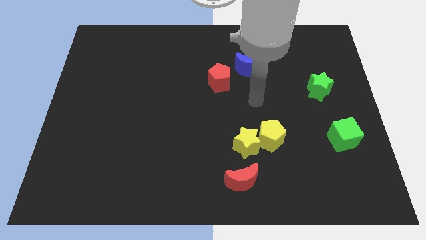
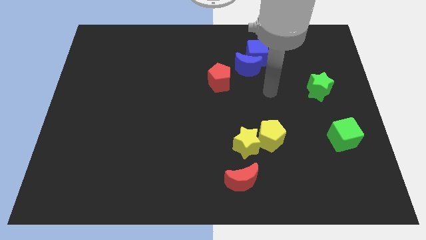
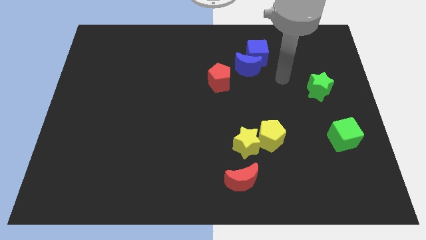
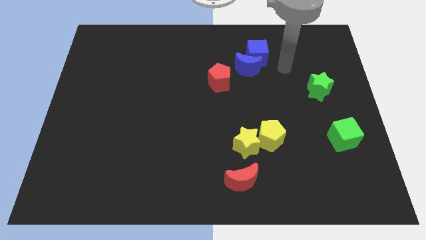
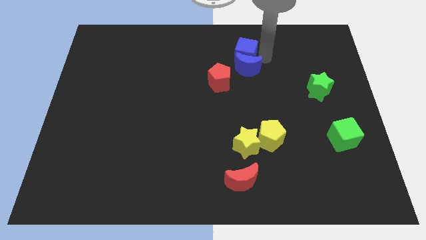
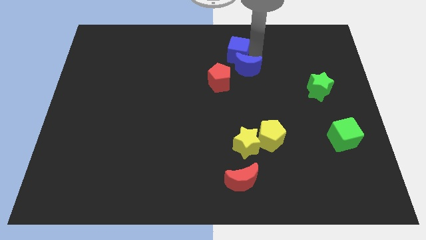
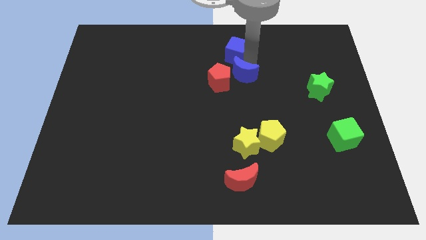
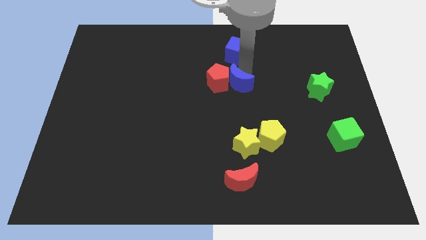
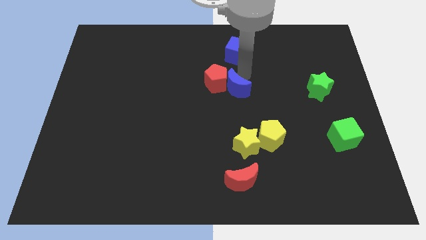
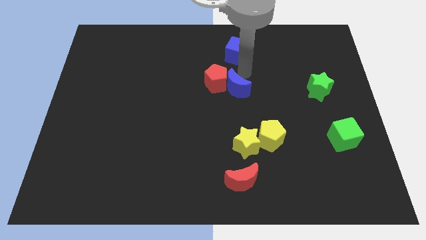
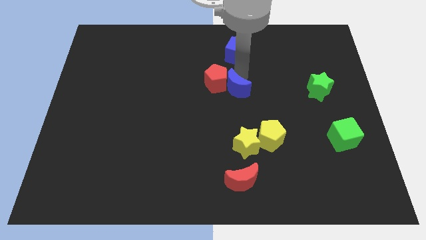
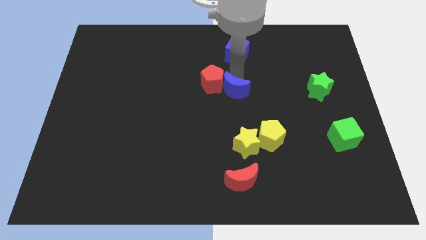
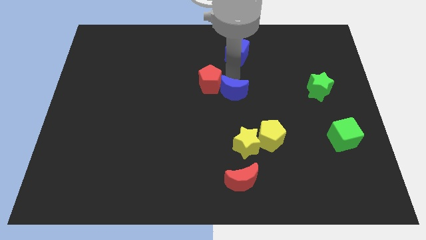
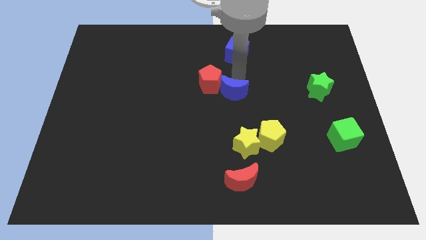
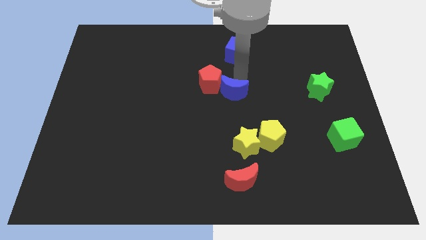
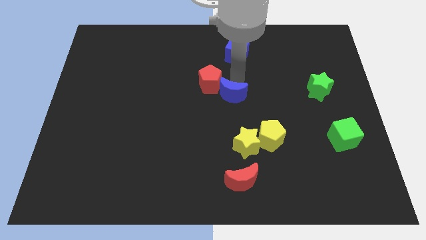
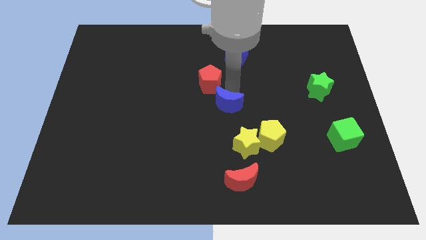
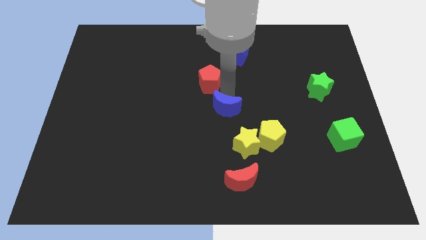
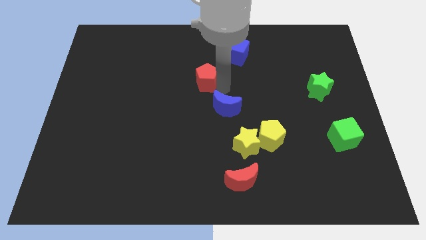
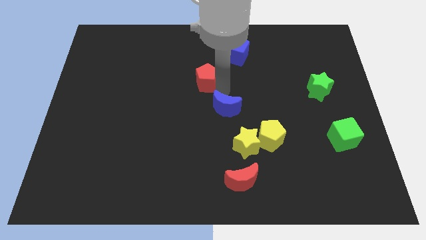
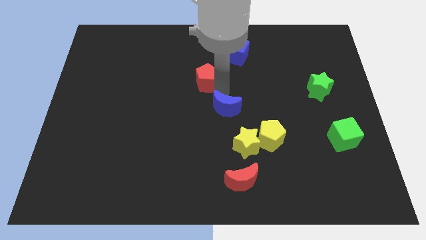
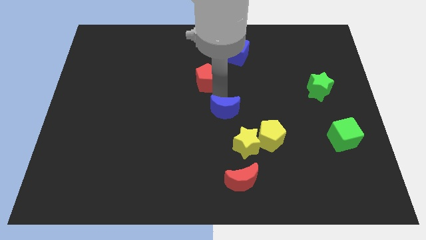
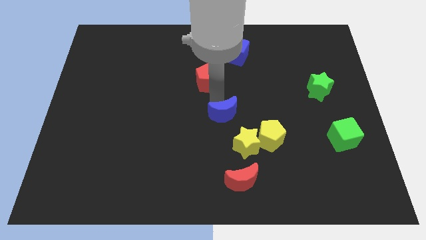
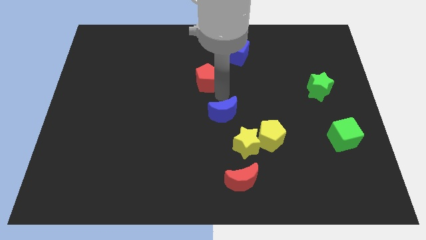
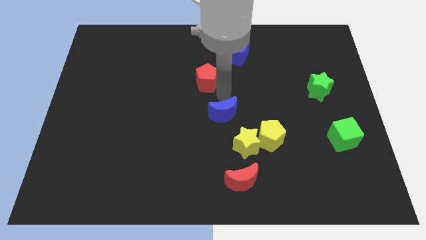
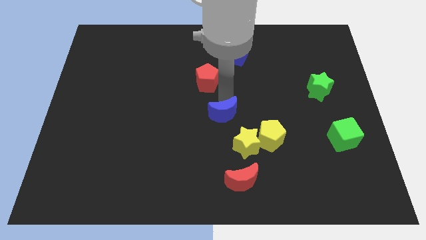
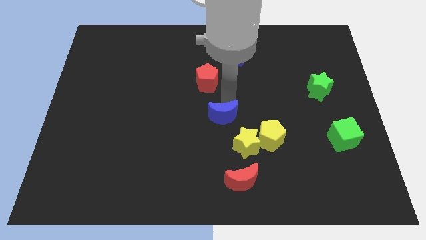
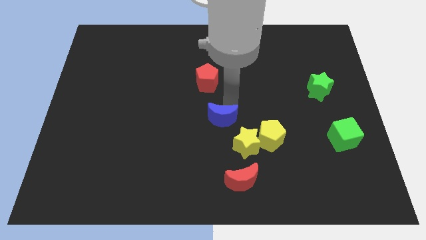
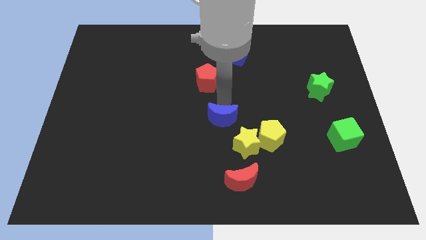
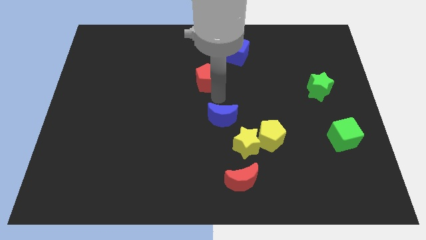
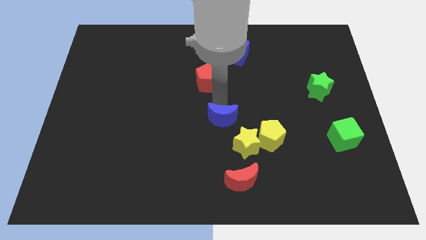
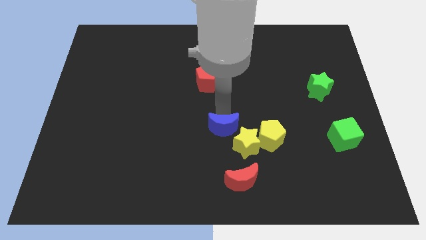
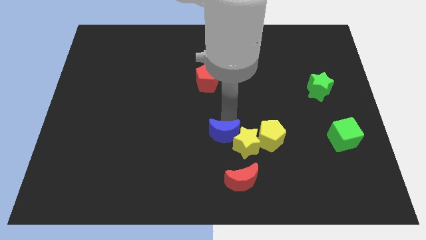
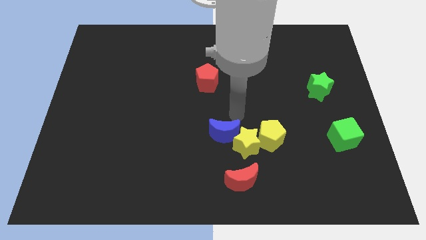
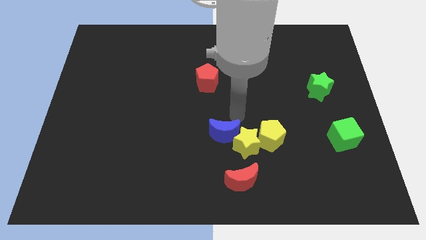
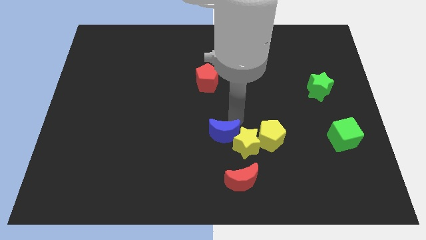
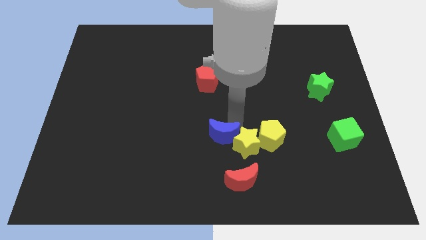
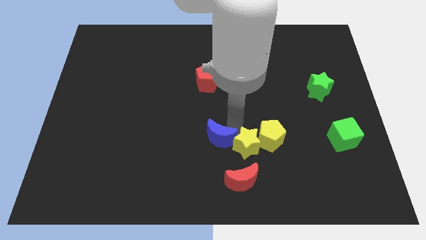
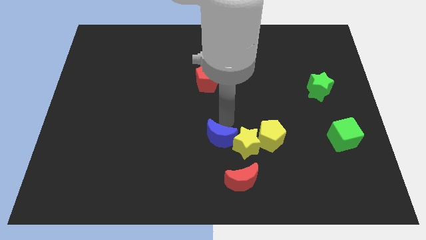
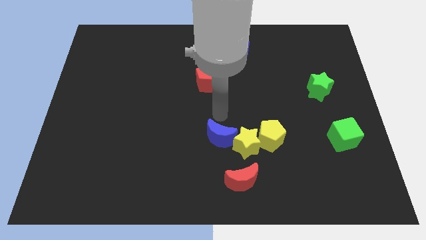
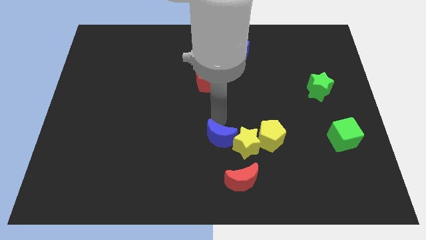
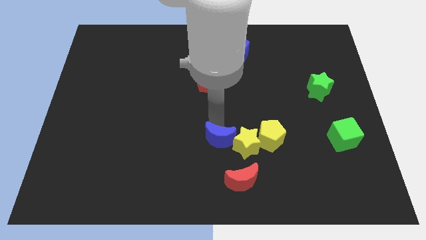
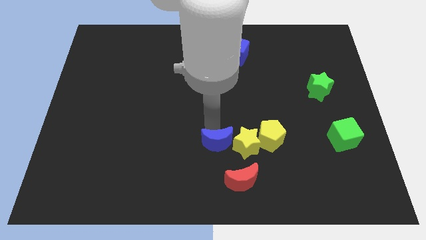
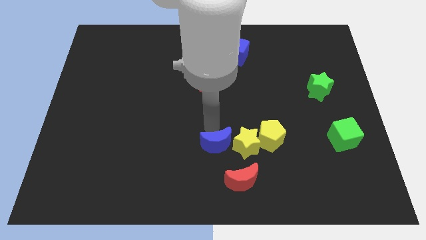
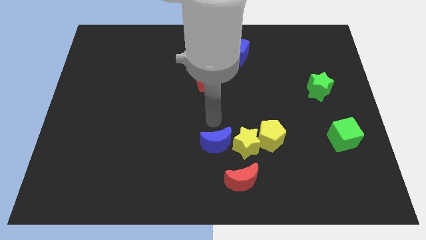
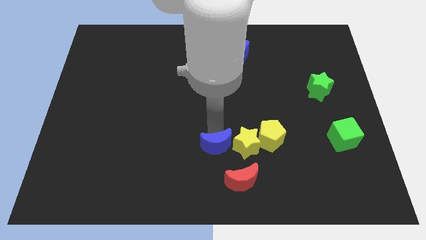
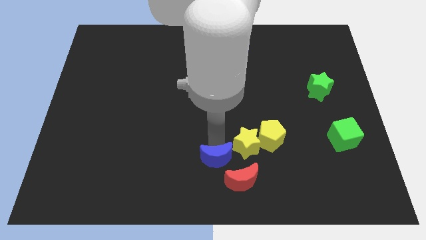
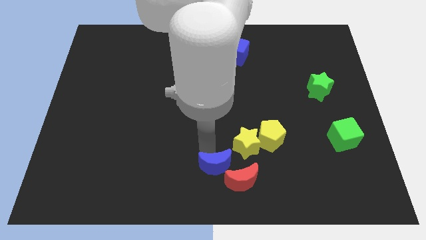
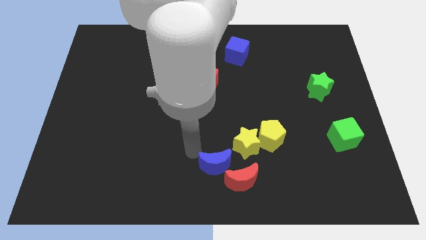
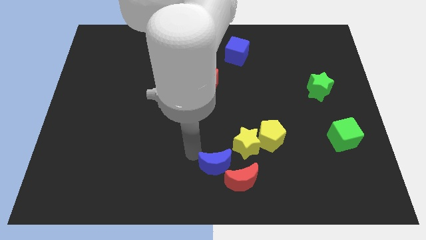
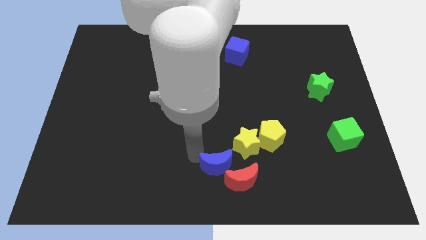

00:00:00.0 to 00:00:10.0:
put the blue moon next to the red moon

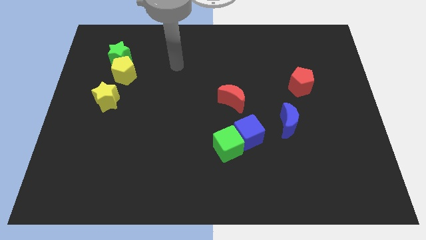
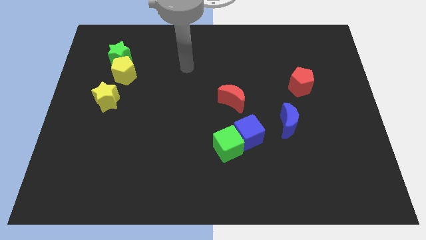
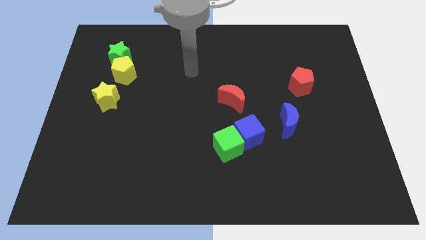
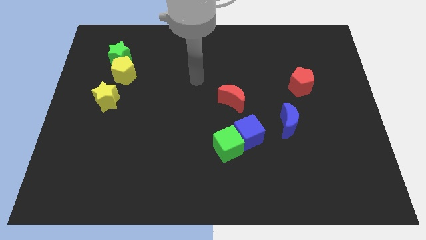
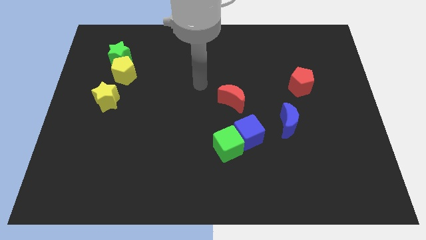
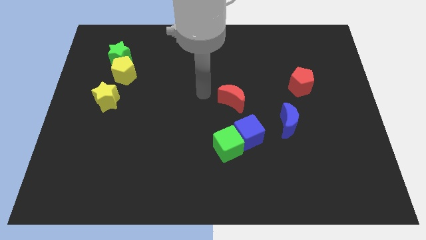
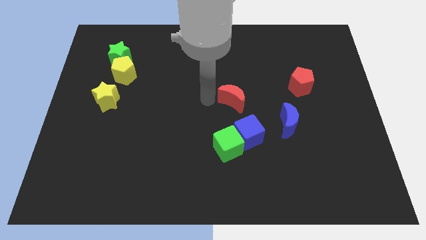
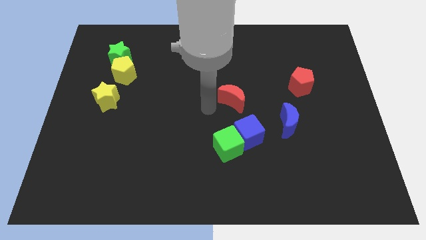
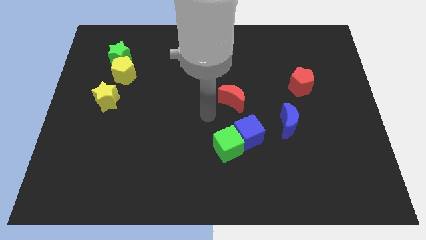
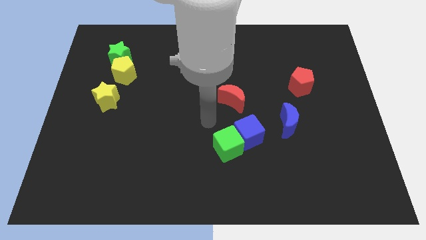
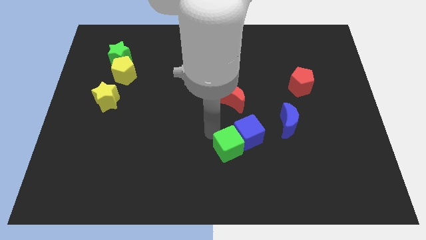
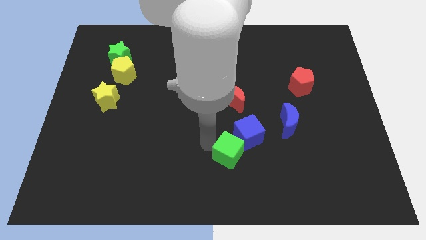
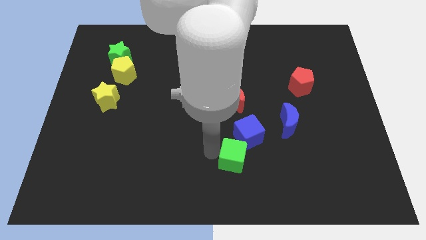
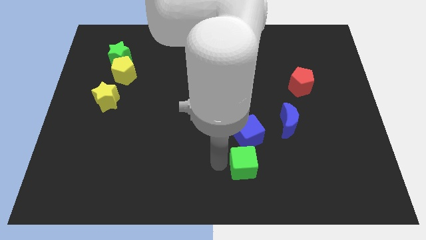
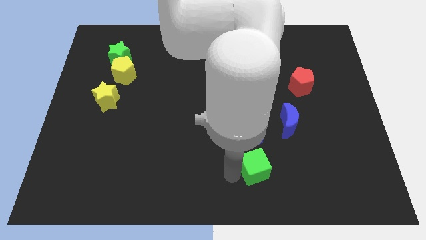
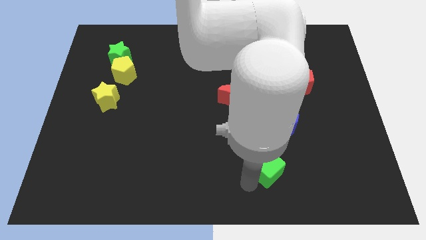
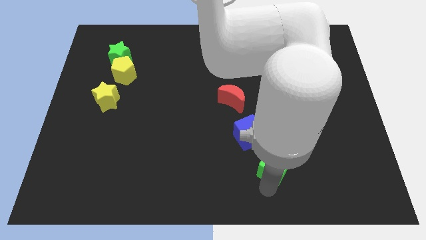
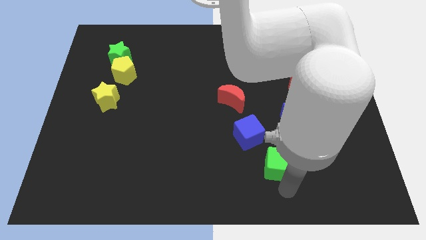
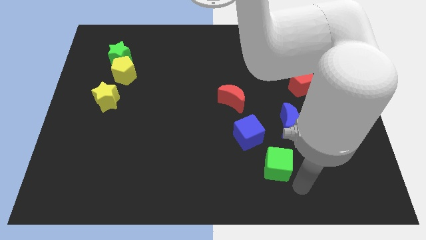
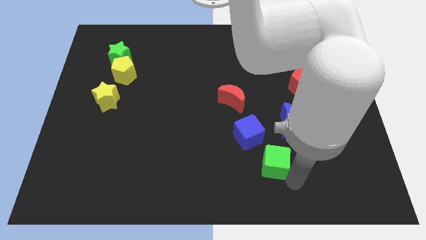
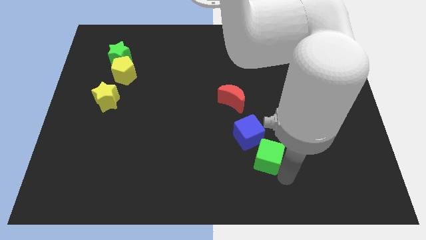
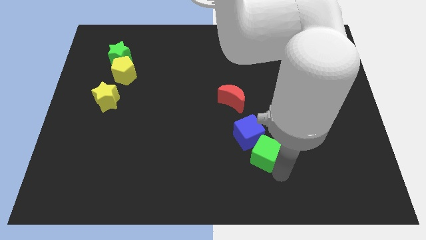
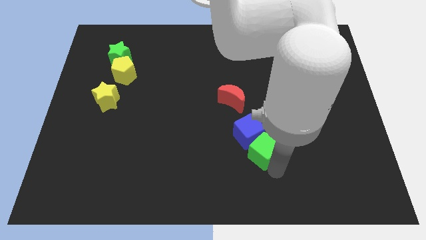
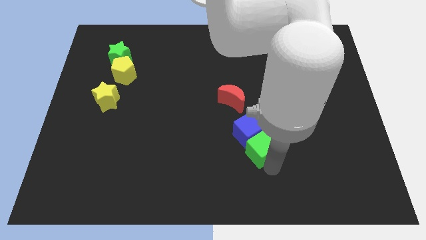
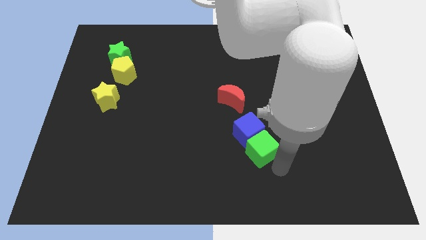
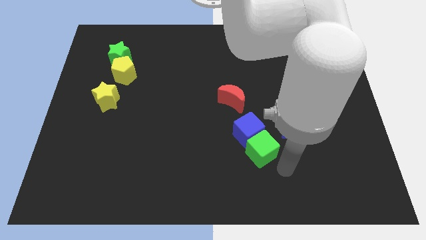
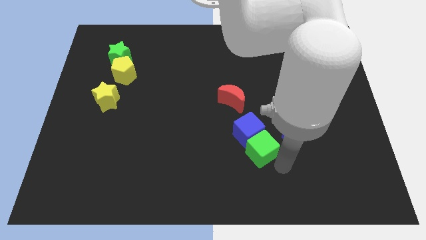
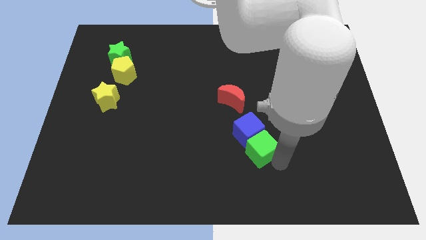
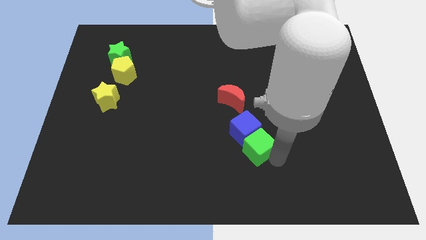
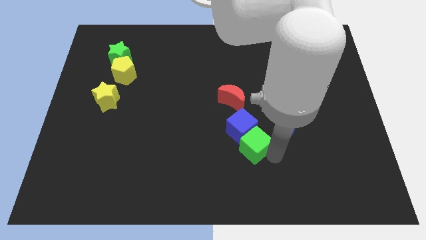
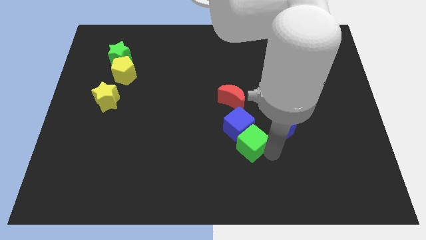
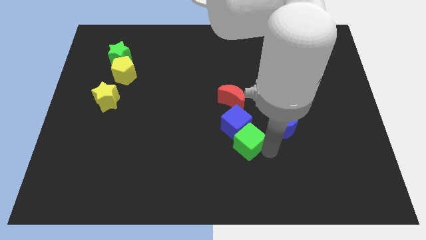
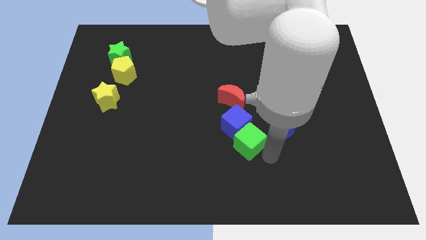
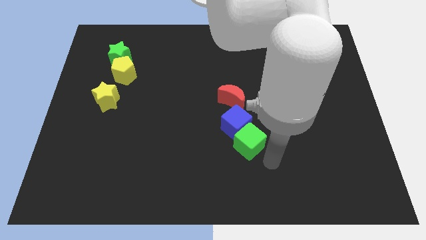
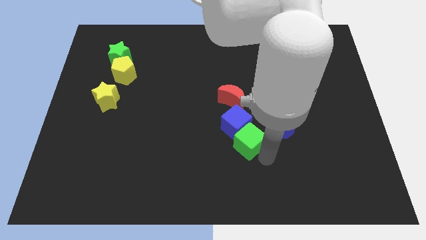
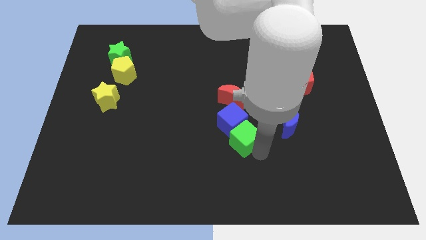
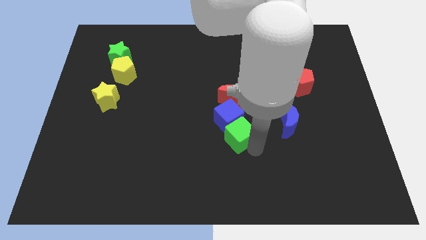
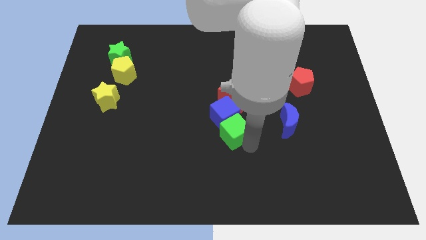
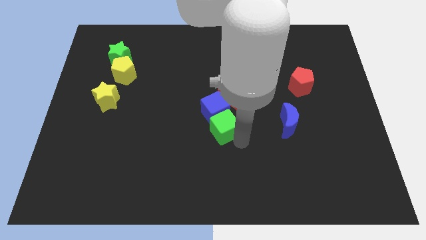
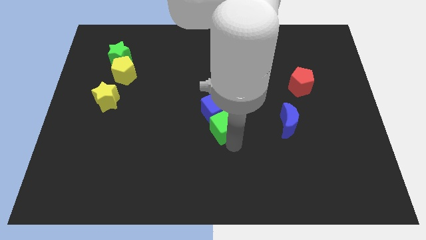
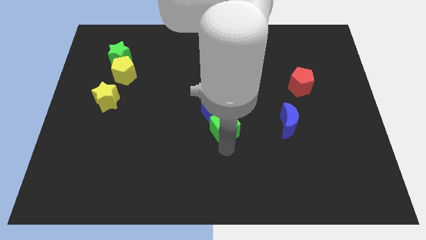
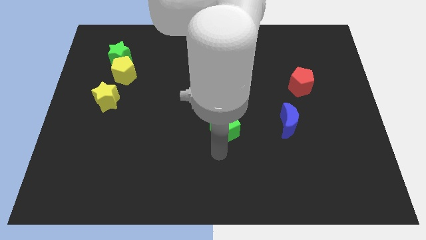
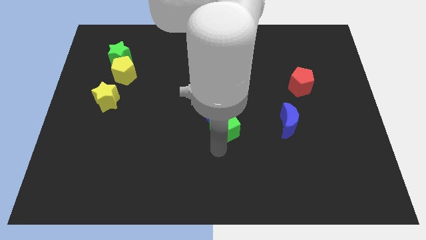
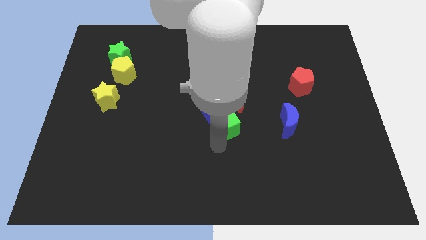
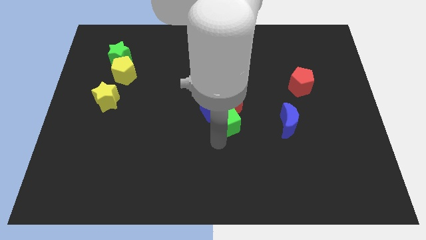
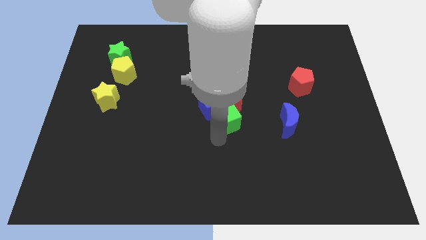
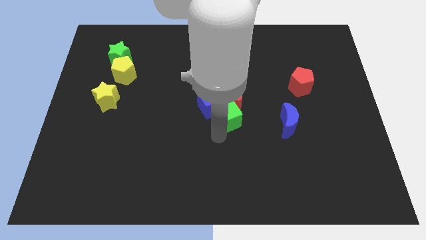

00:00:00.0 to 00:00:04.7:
slide the green cube close to the red moon
